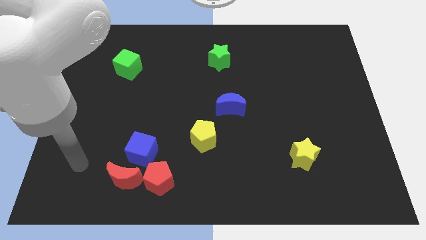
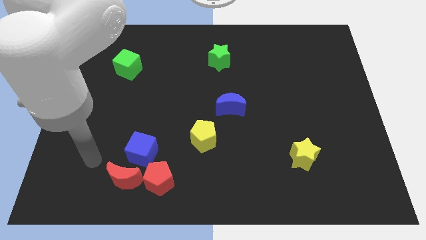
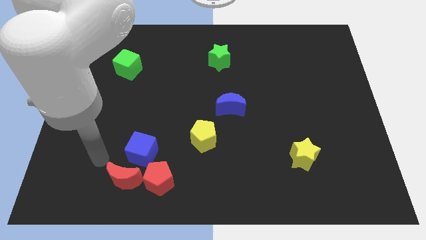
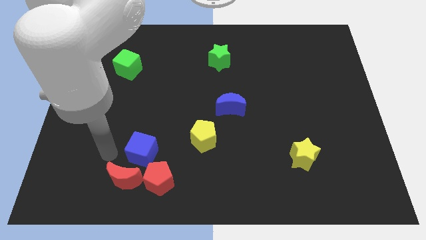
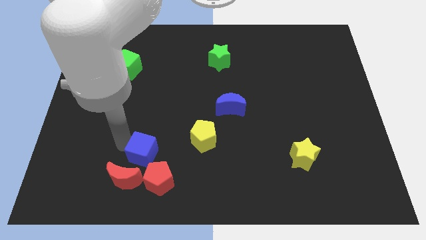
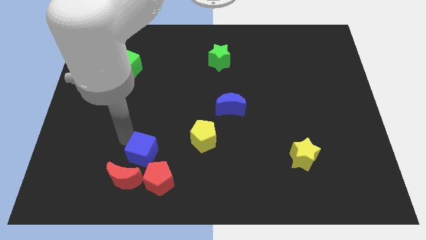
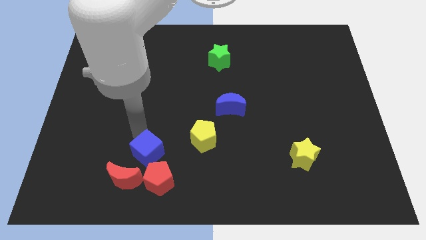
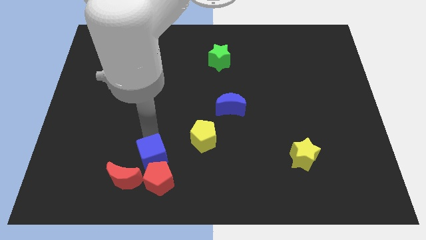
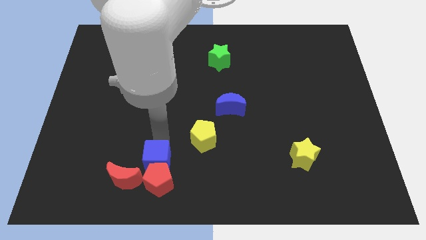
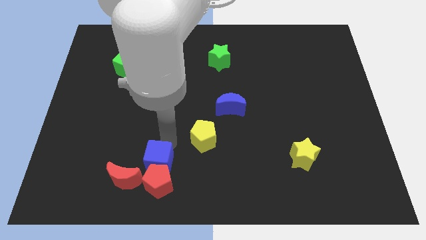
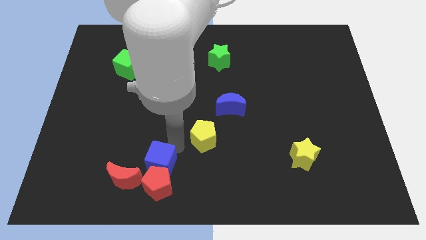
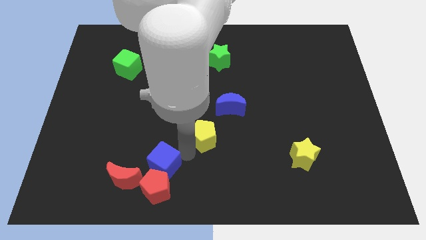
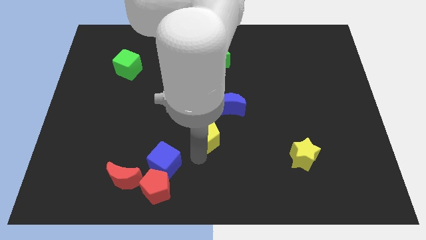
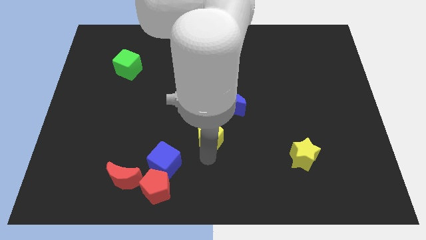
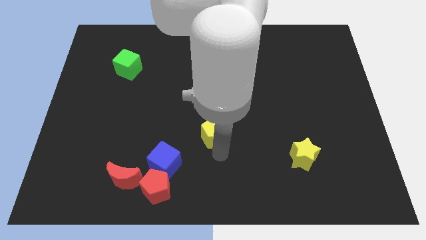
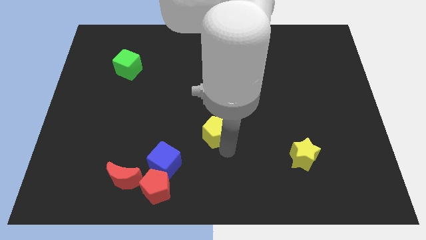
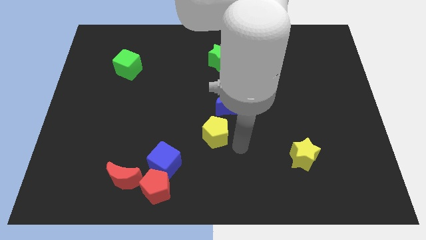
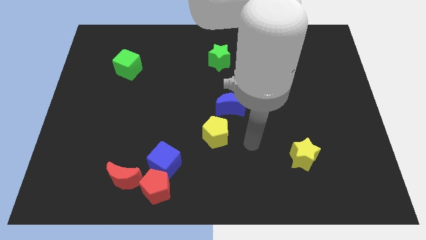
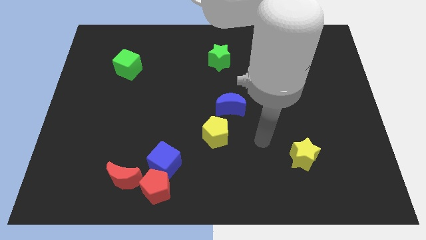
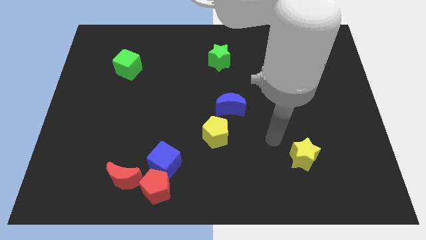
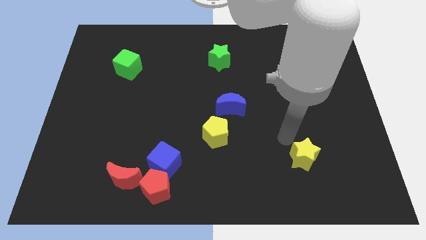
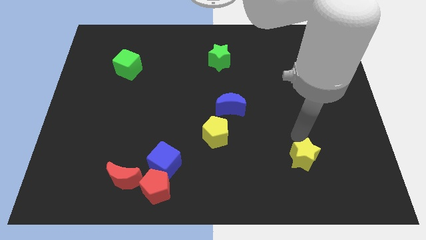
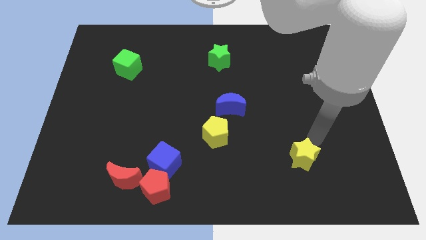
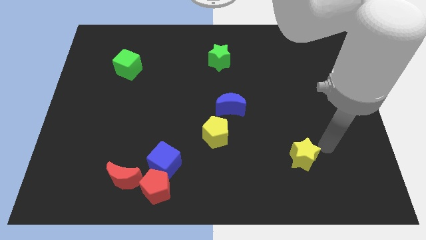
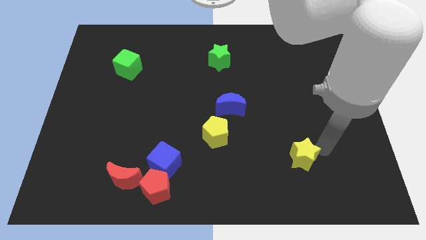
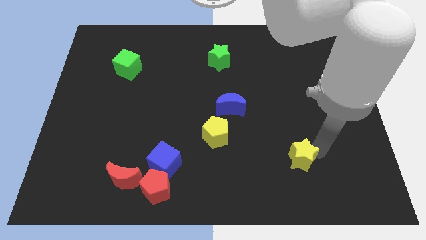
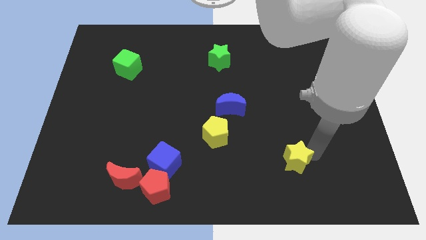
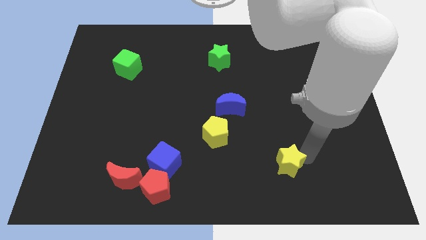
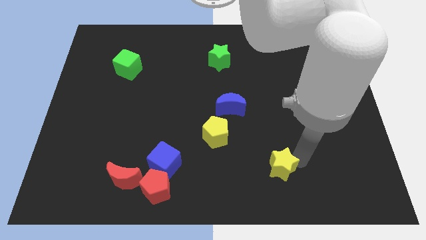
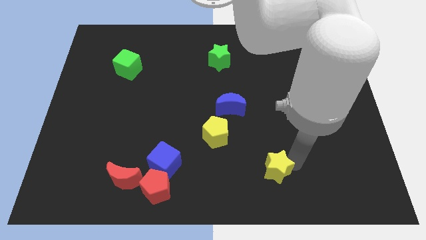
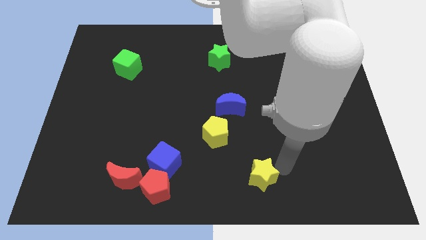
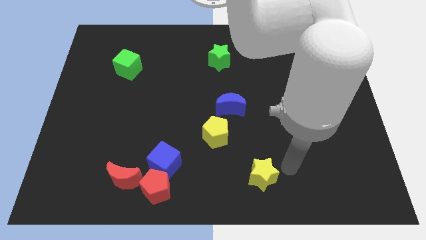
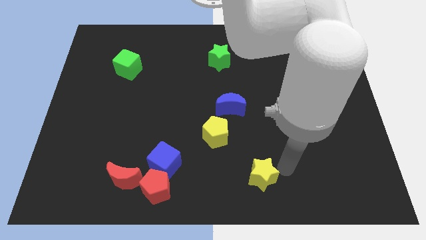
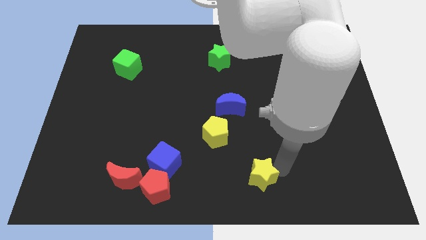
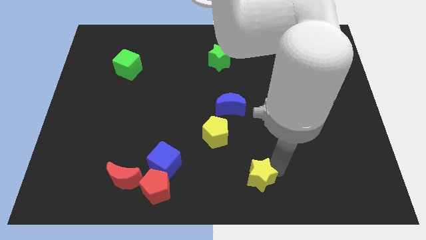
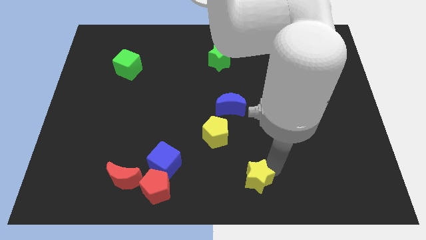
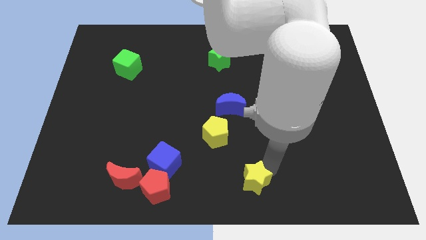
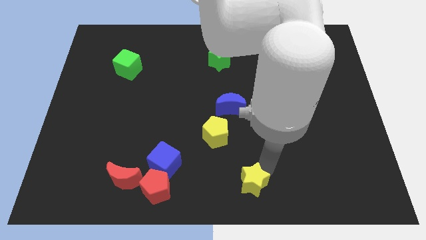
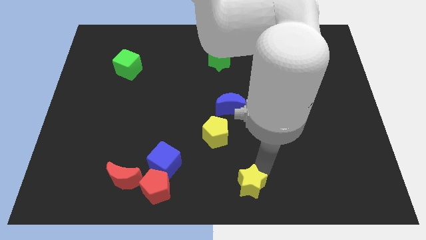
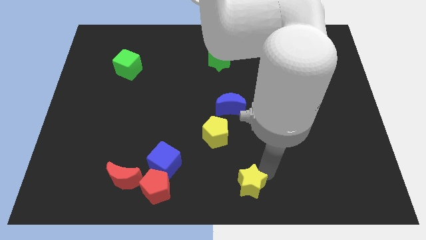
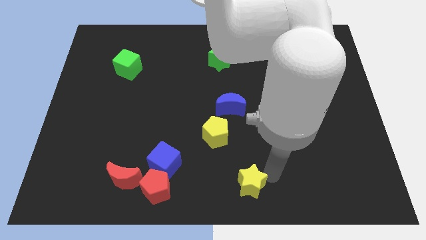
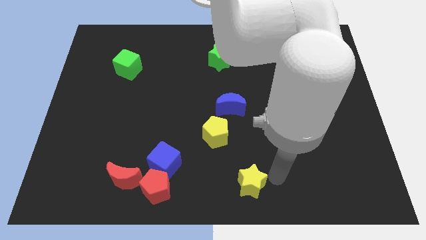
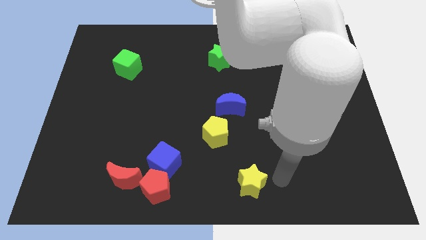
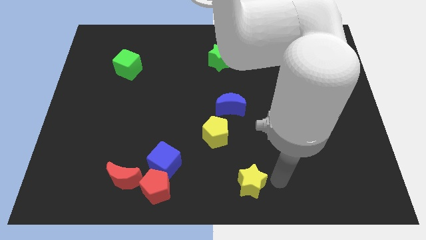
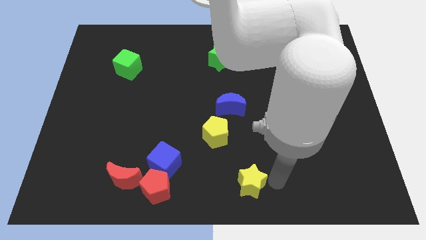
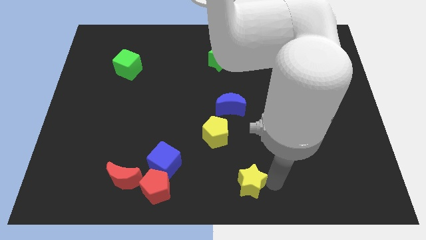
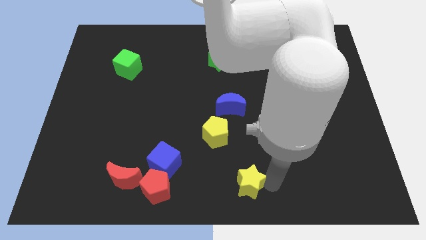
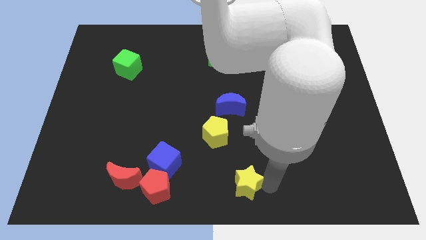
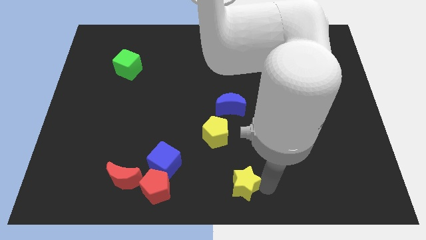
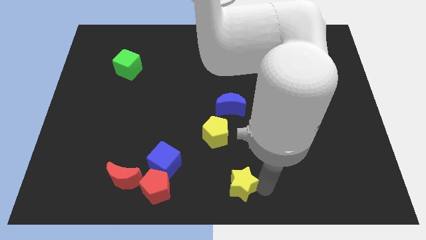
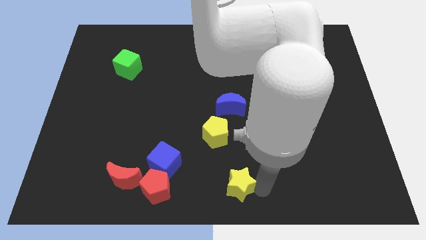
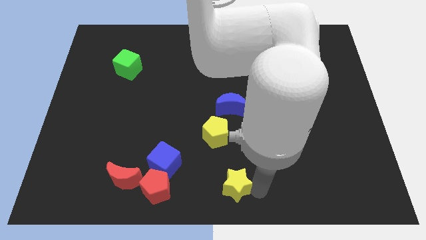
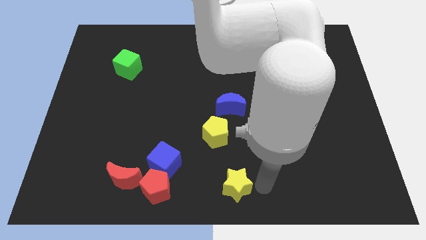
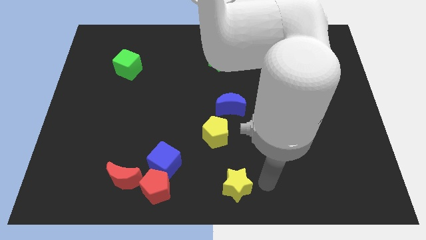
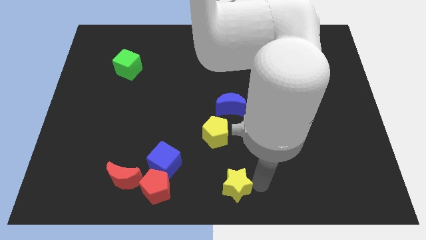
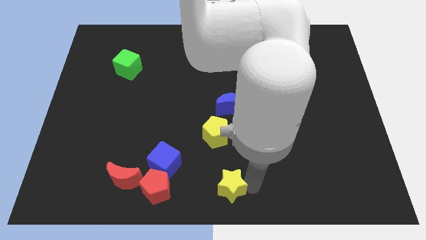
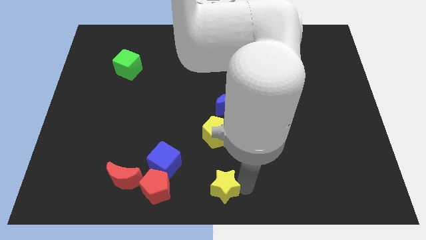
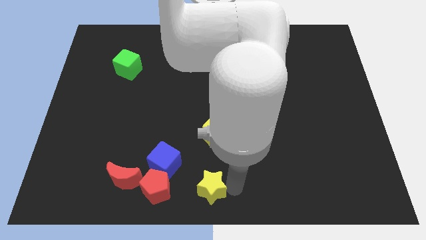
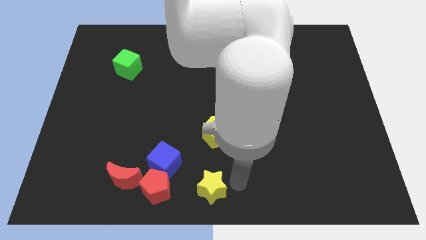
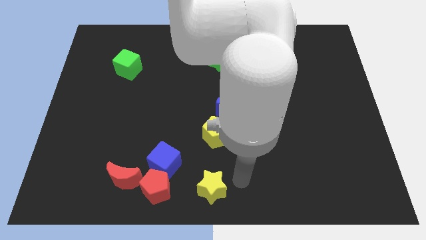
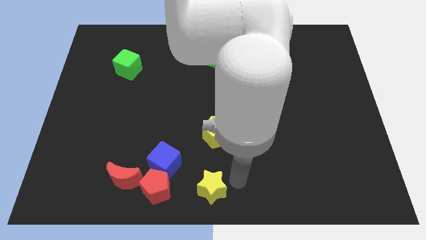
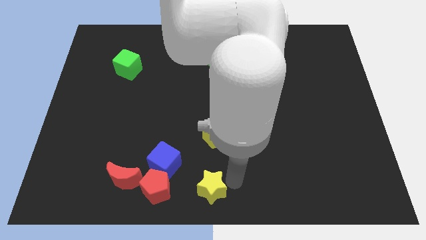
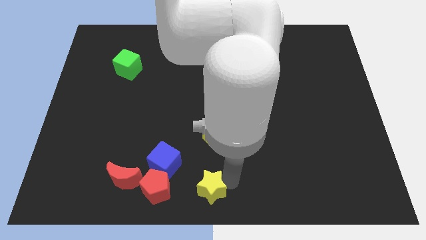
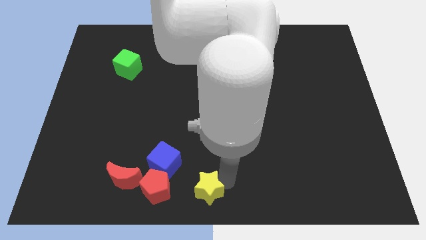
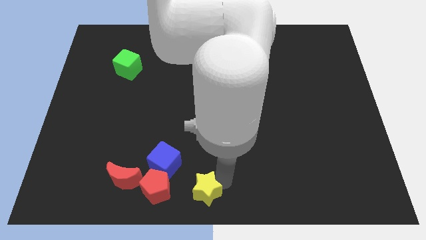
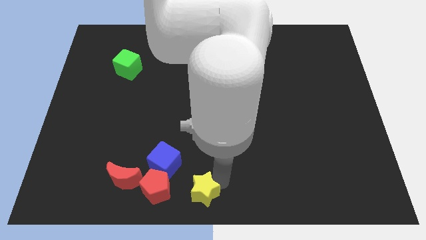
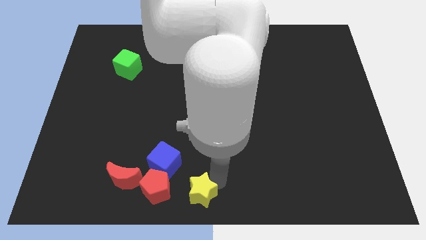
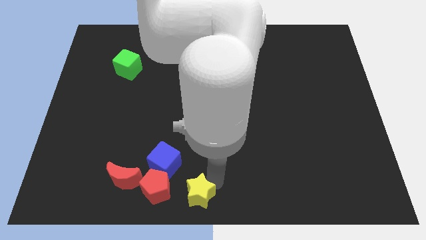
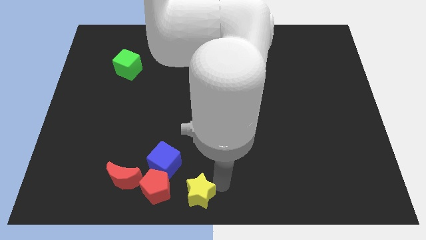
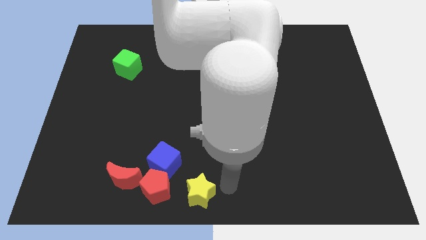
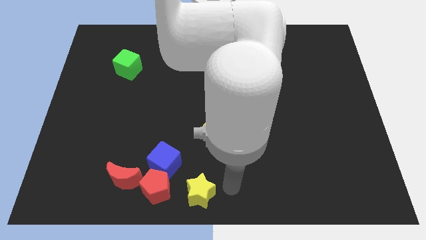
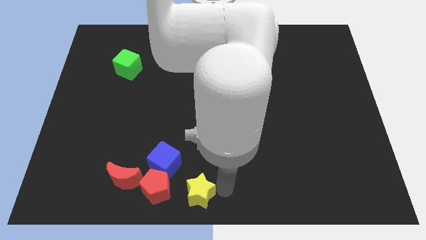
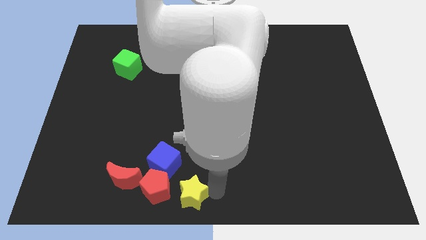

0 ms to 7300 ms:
slide the yellow star just right of the red moon
